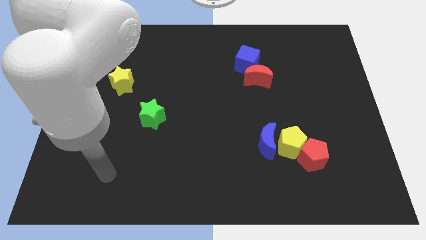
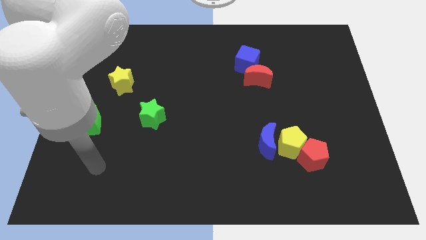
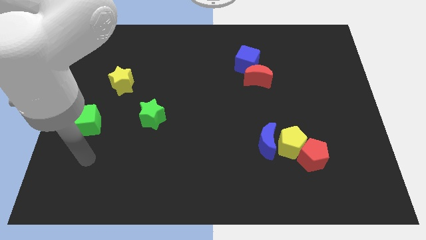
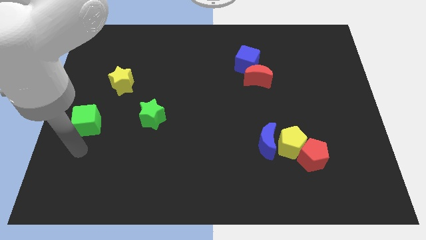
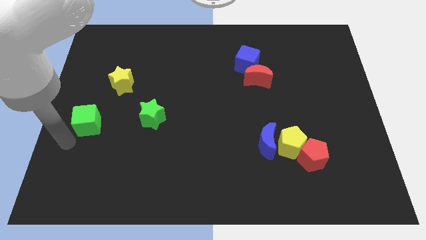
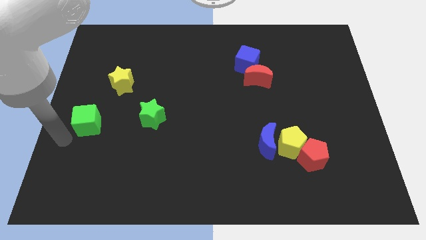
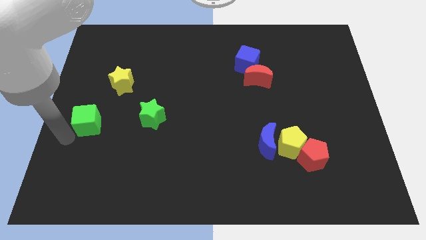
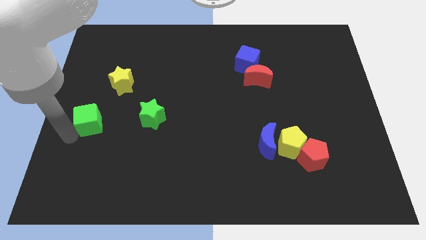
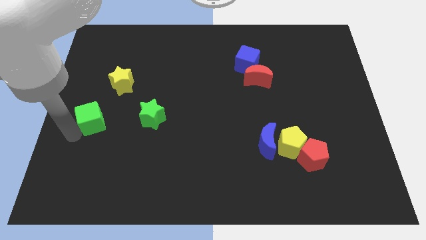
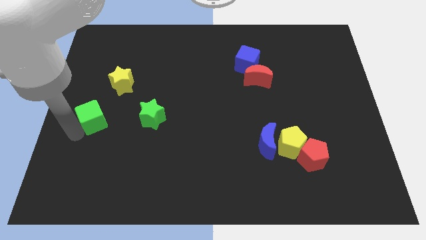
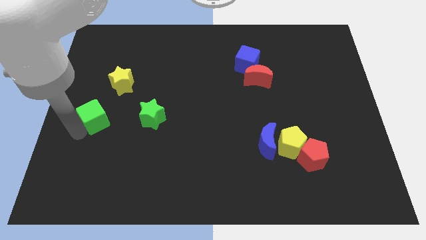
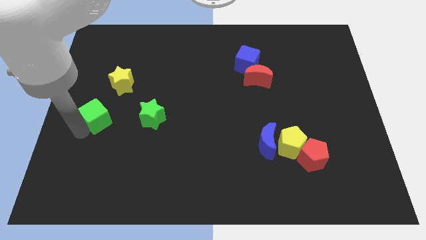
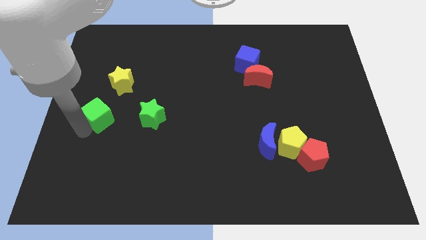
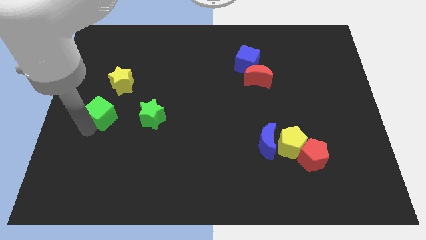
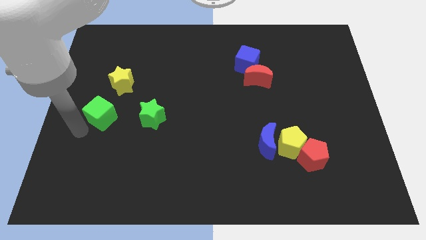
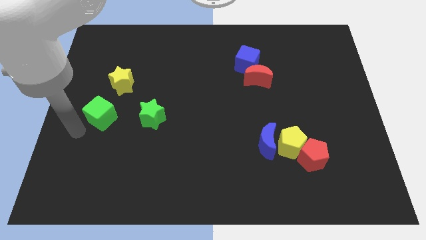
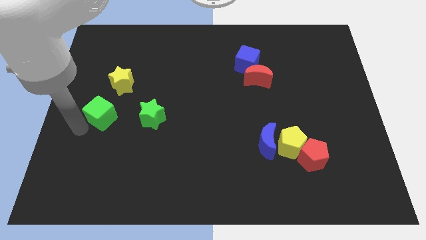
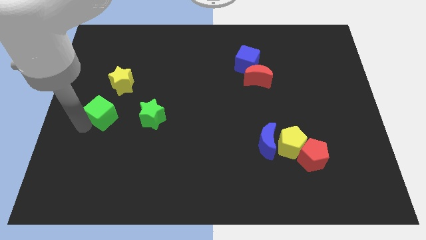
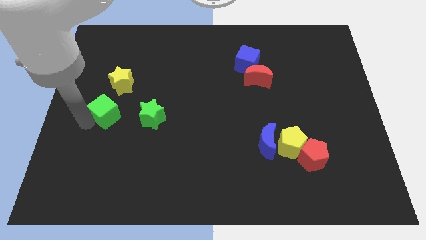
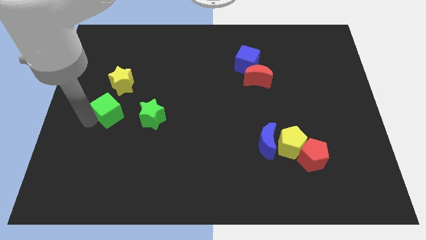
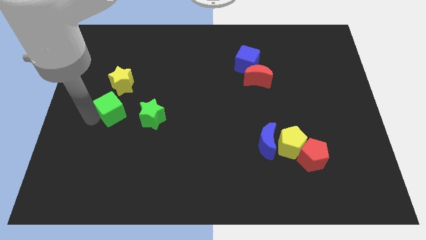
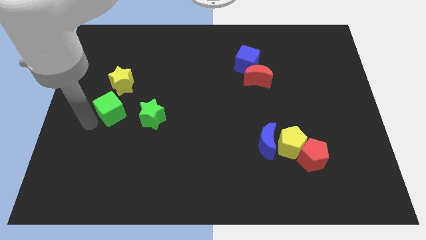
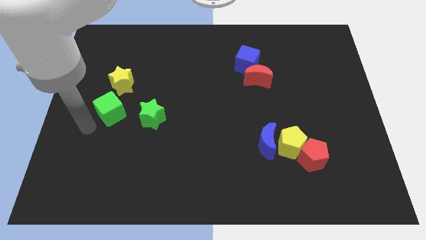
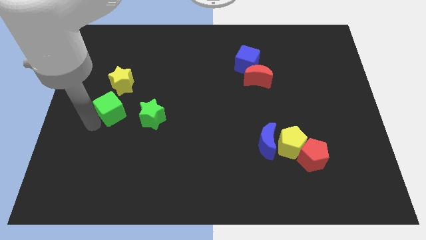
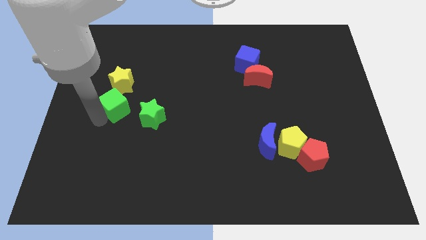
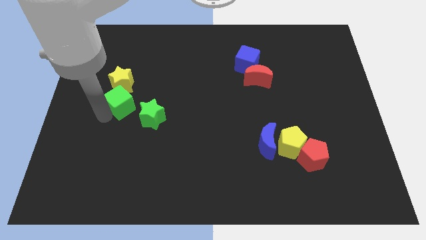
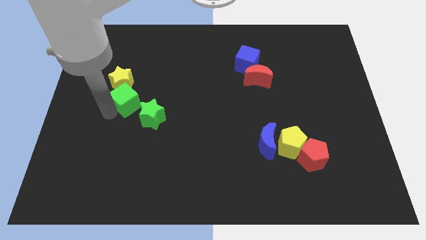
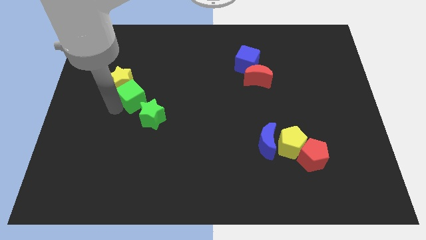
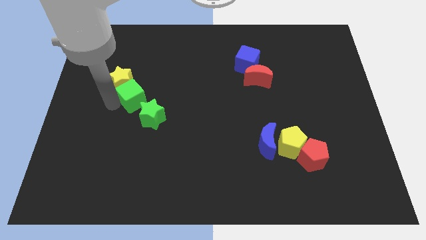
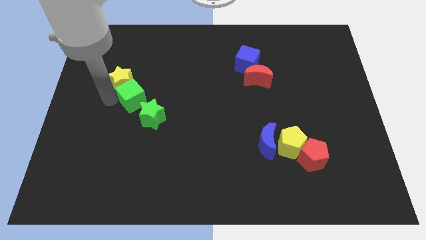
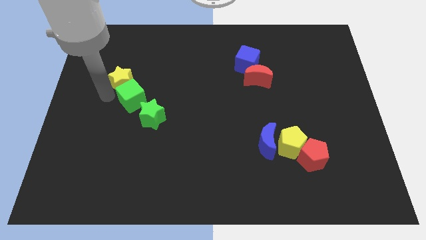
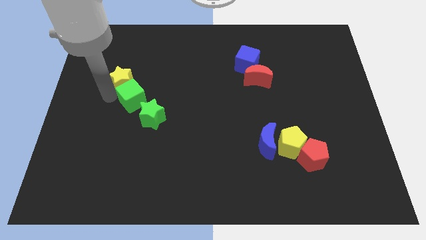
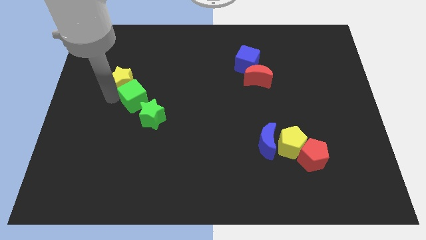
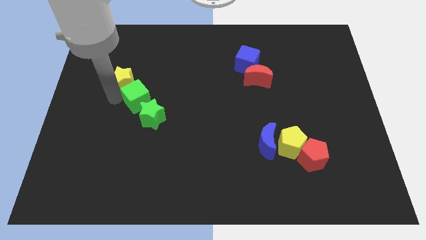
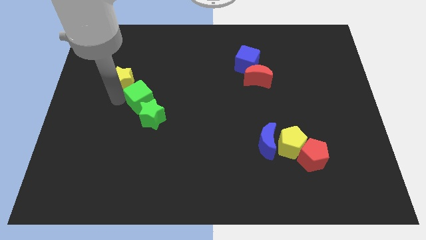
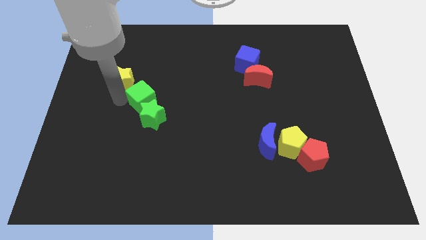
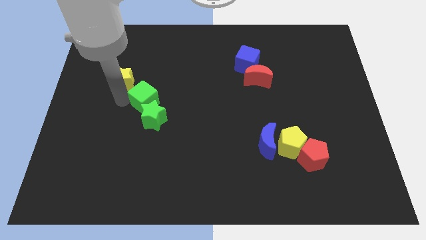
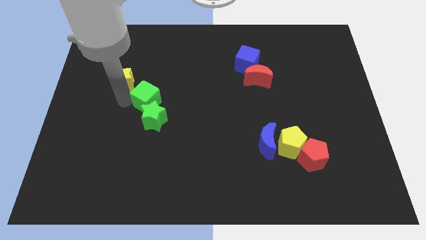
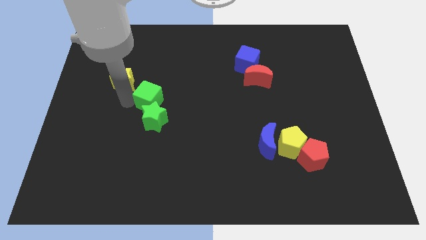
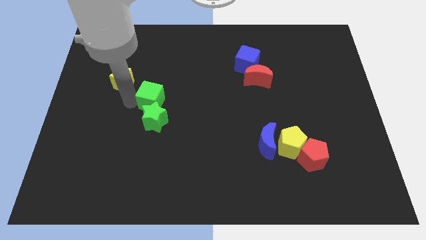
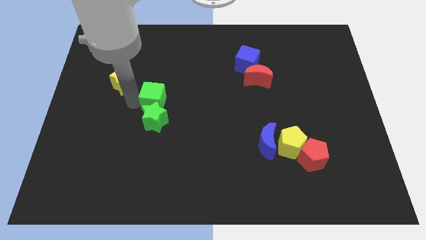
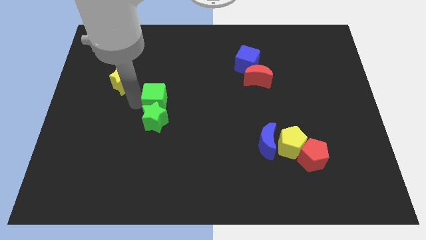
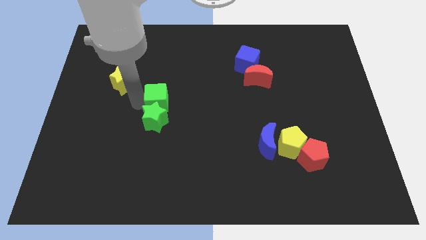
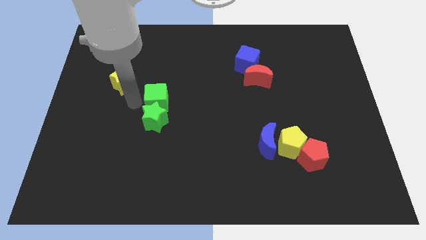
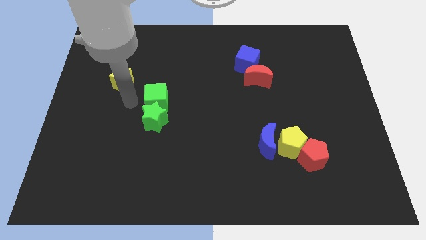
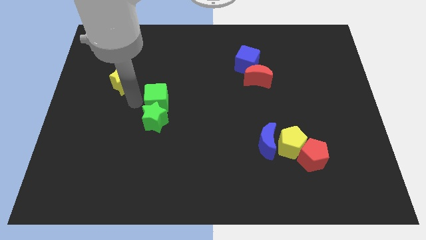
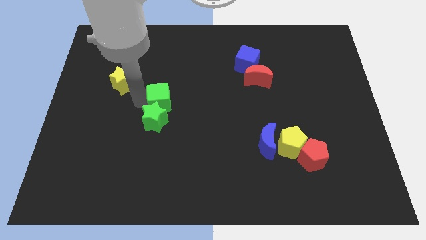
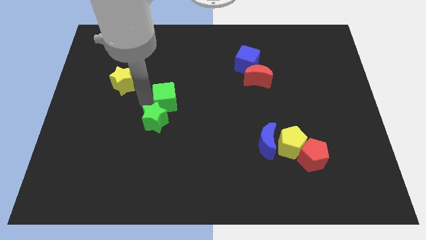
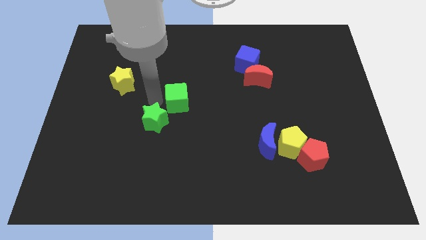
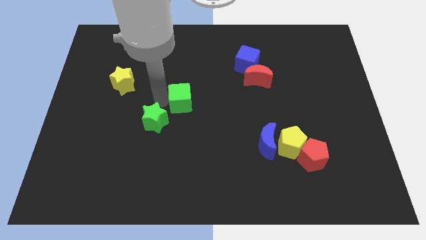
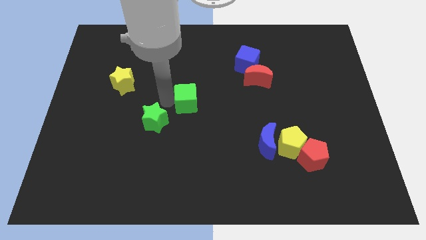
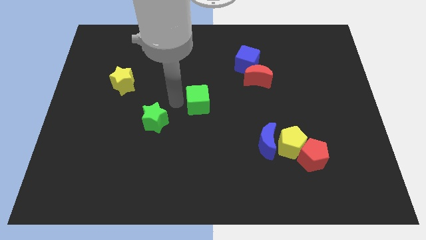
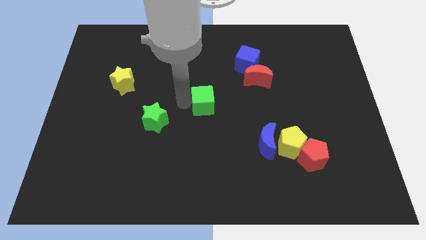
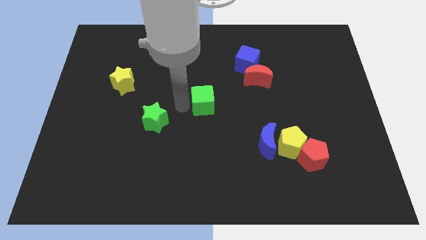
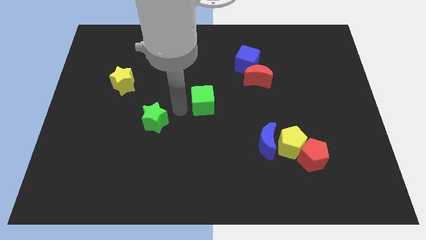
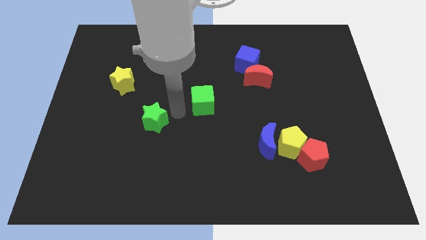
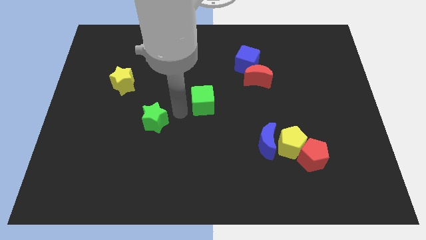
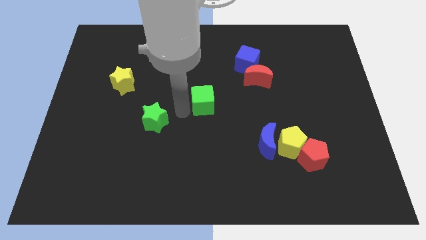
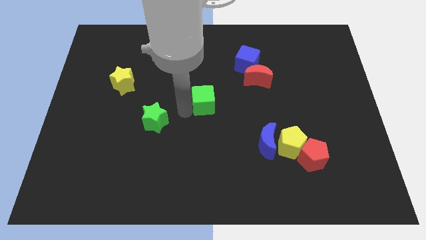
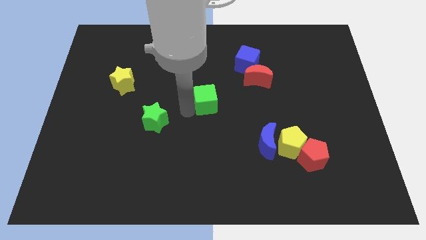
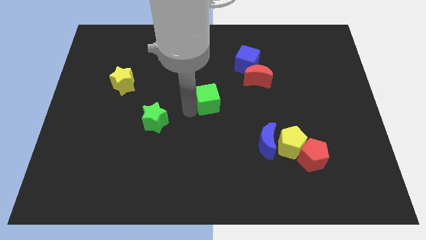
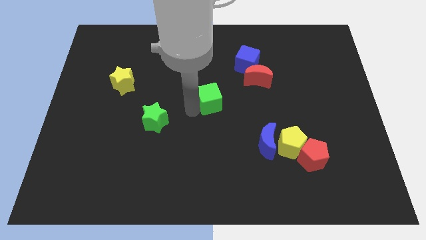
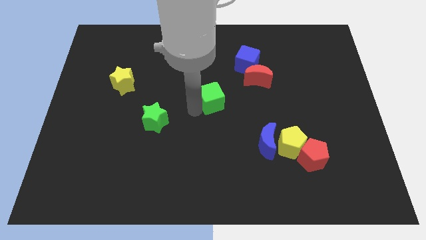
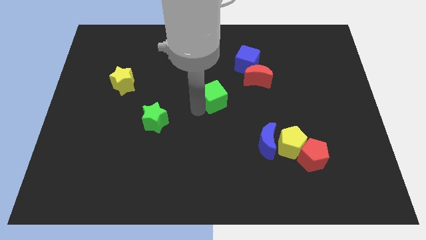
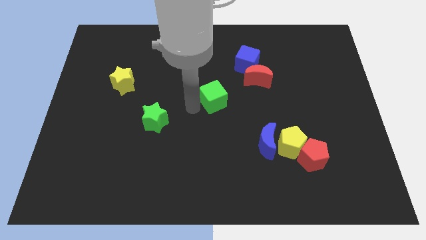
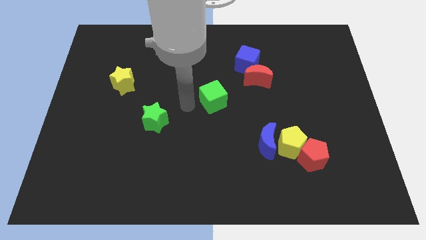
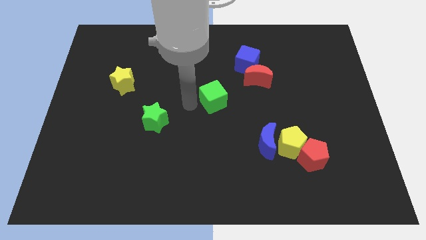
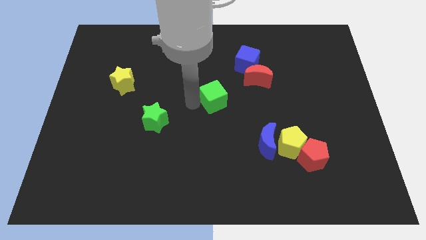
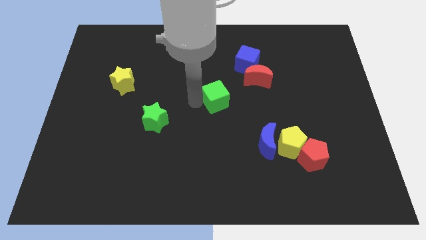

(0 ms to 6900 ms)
push the green cube to the bottom left side of the red moon
